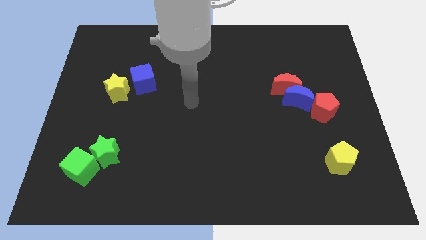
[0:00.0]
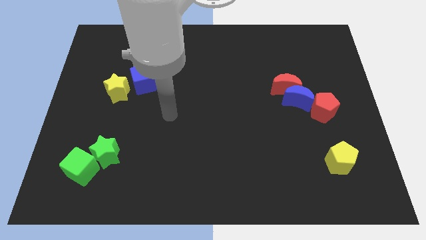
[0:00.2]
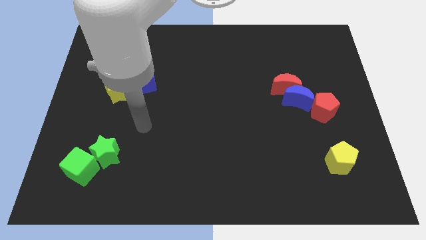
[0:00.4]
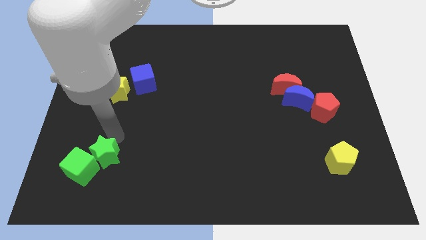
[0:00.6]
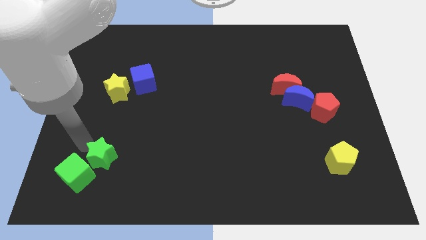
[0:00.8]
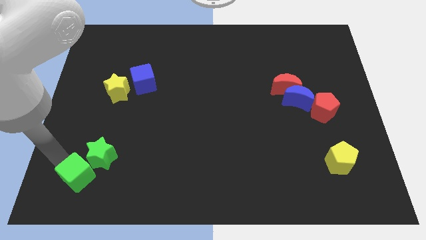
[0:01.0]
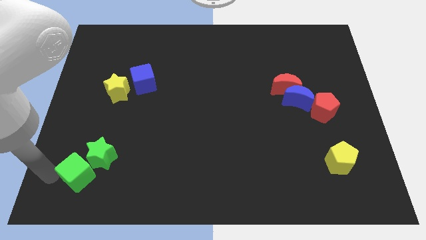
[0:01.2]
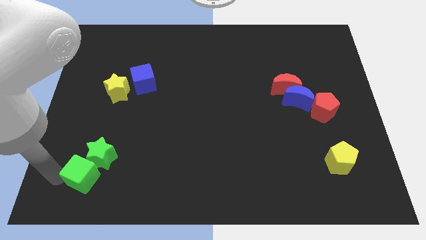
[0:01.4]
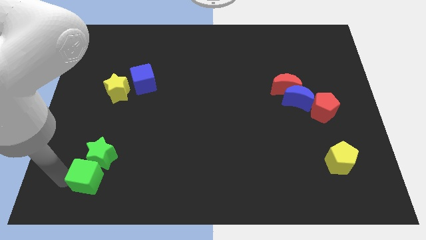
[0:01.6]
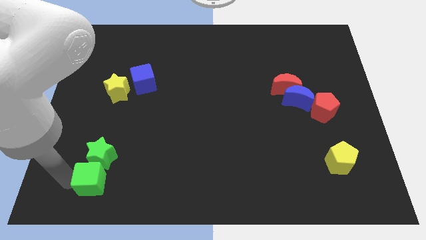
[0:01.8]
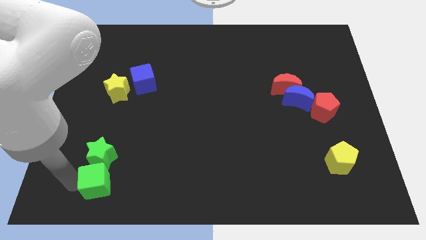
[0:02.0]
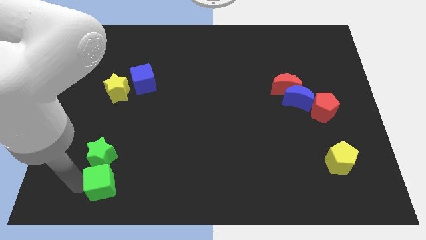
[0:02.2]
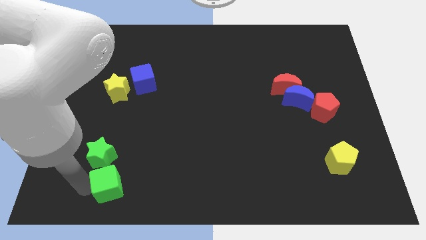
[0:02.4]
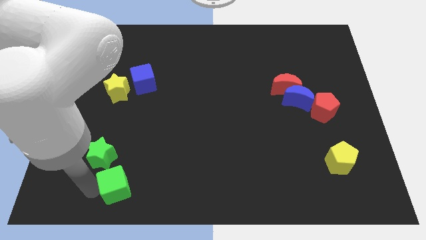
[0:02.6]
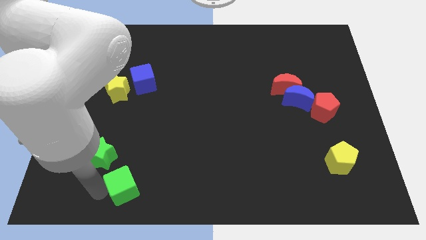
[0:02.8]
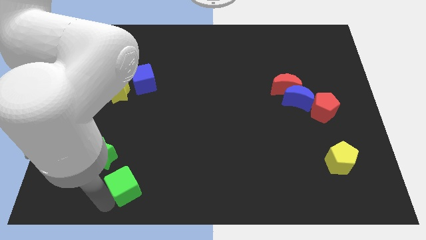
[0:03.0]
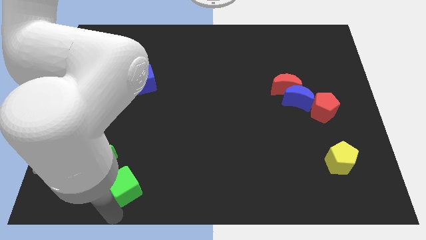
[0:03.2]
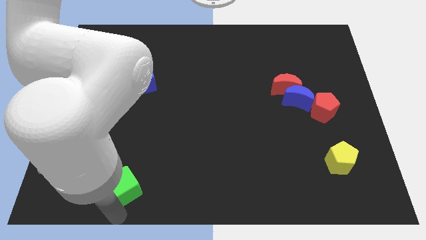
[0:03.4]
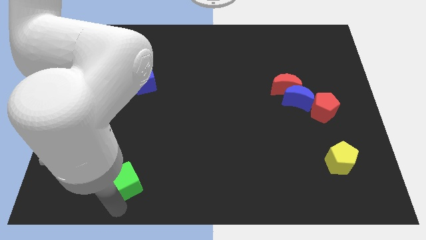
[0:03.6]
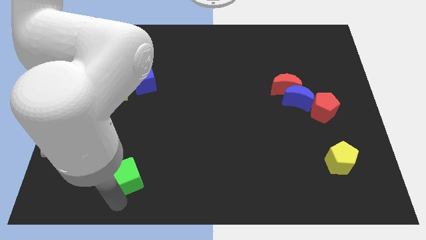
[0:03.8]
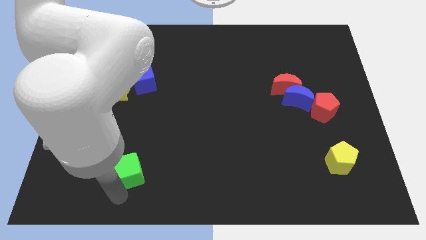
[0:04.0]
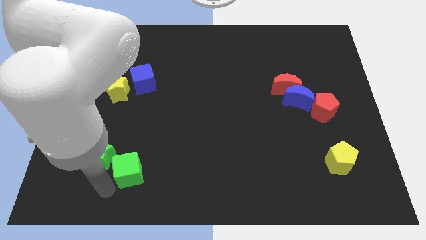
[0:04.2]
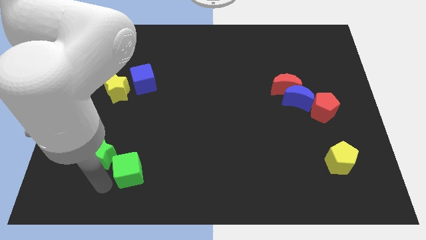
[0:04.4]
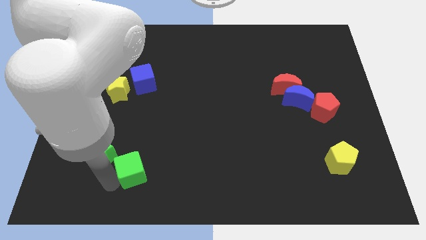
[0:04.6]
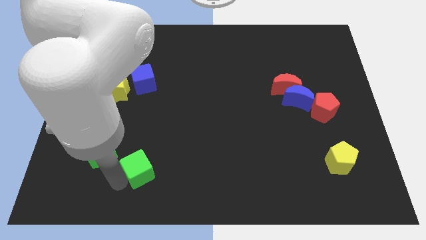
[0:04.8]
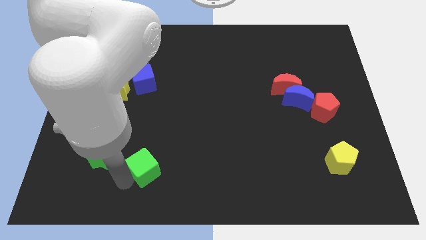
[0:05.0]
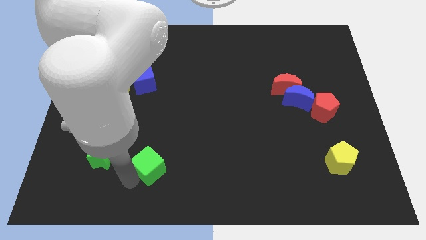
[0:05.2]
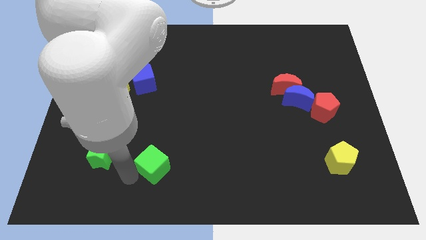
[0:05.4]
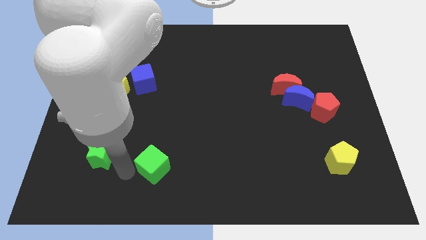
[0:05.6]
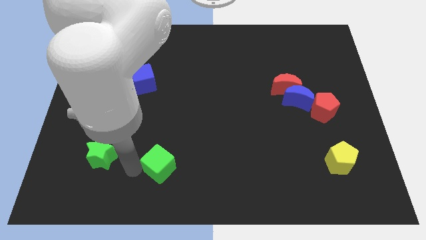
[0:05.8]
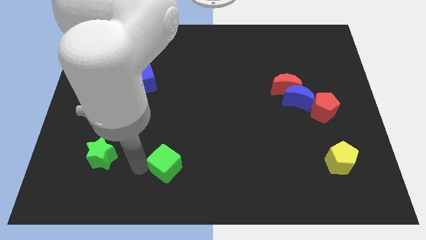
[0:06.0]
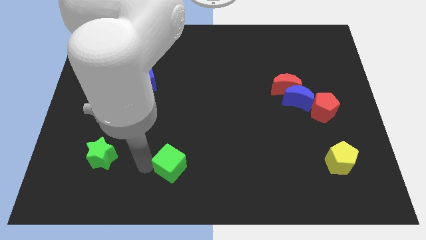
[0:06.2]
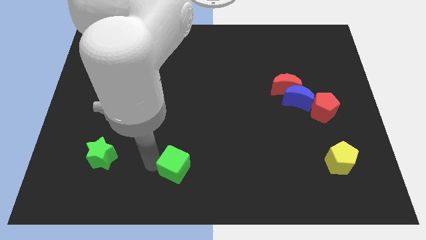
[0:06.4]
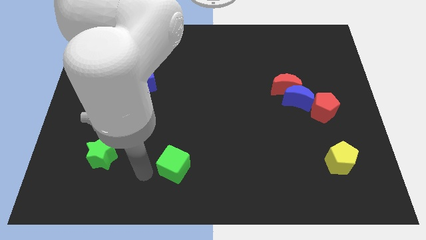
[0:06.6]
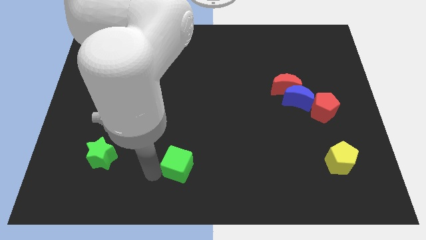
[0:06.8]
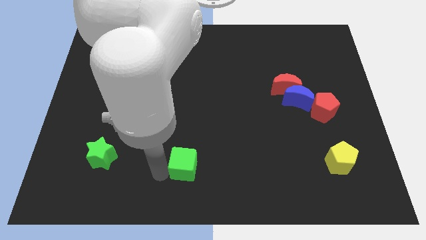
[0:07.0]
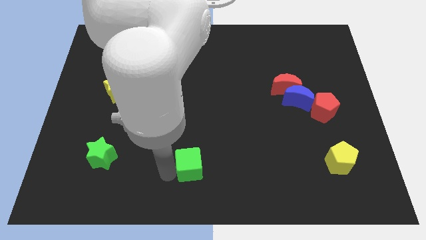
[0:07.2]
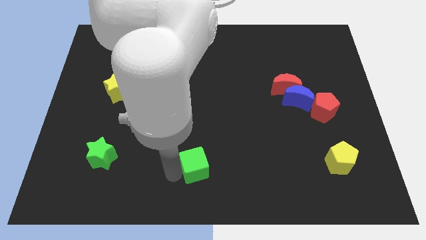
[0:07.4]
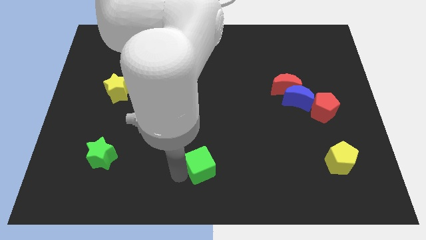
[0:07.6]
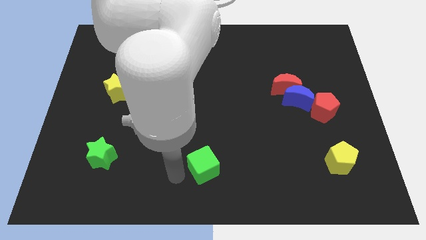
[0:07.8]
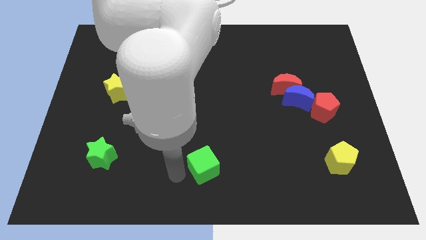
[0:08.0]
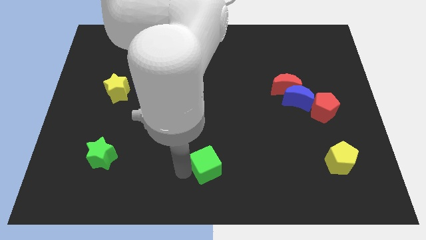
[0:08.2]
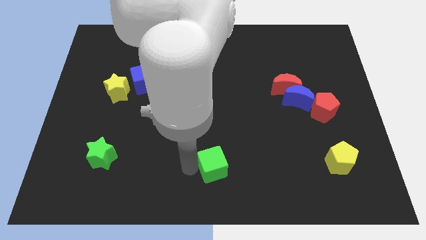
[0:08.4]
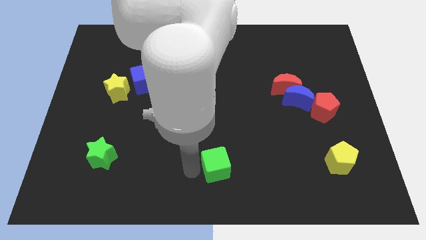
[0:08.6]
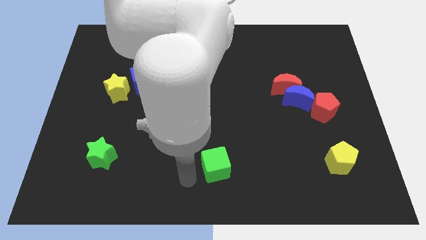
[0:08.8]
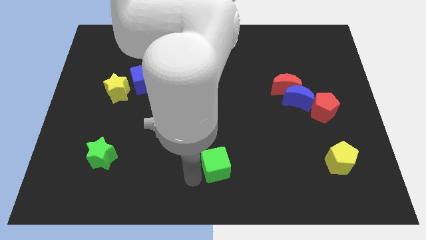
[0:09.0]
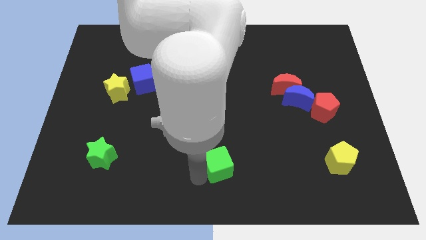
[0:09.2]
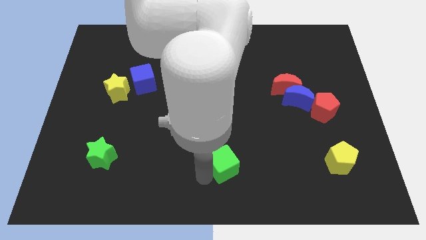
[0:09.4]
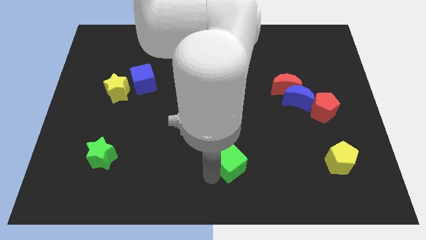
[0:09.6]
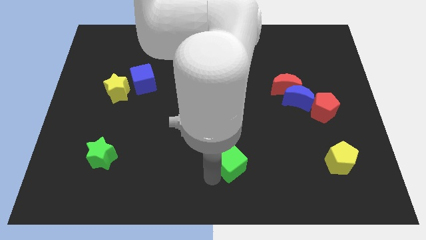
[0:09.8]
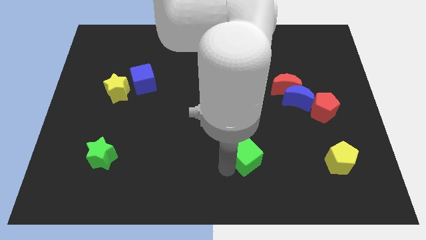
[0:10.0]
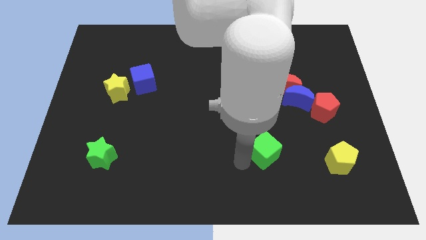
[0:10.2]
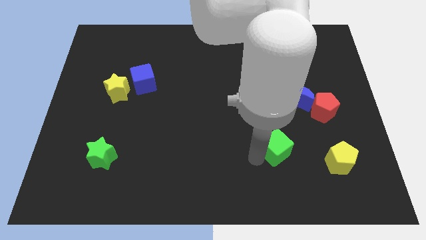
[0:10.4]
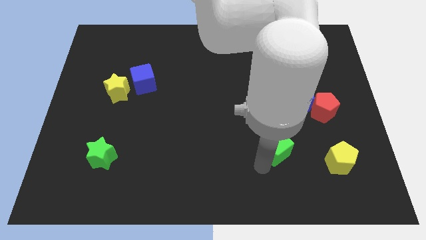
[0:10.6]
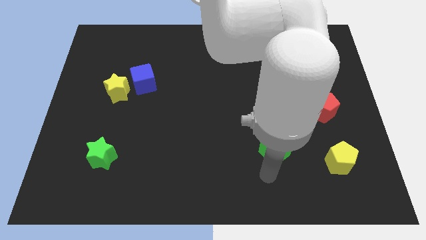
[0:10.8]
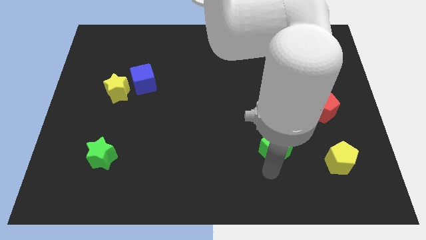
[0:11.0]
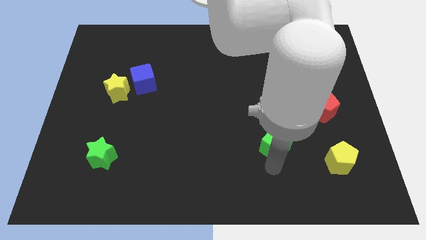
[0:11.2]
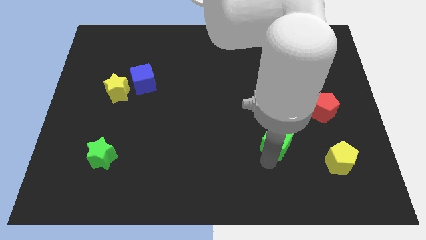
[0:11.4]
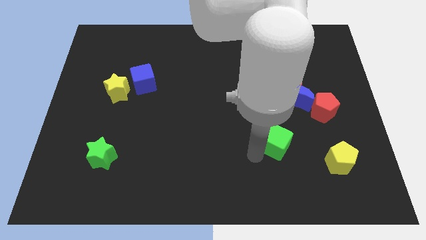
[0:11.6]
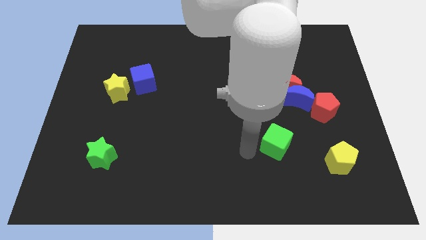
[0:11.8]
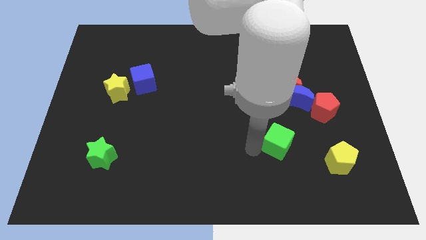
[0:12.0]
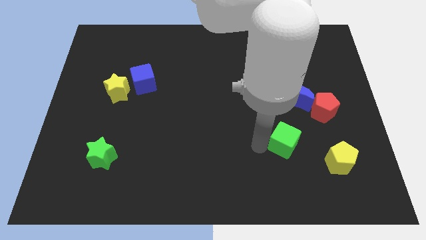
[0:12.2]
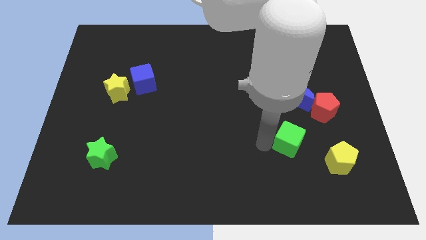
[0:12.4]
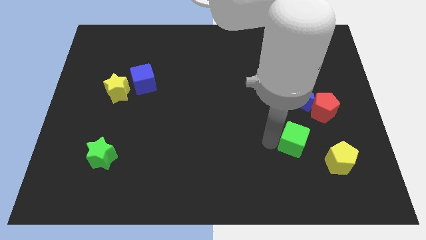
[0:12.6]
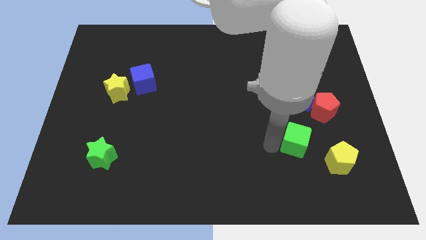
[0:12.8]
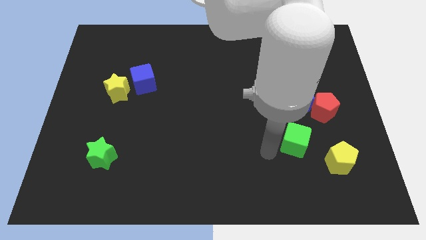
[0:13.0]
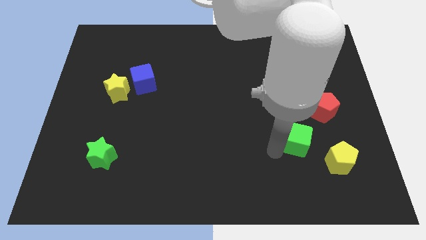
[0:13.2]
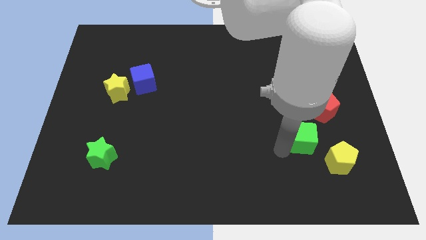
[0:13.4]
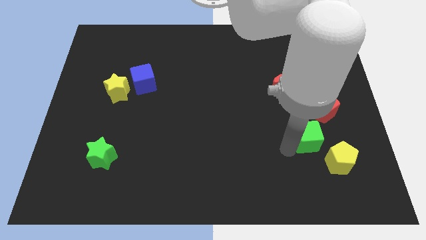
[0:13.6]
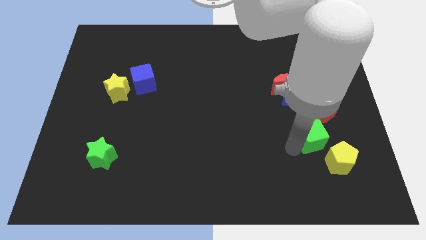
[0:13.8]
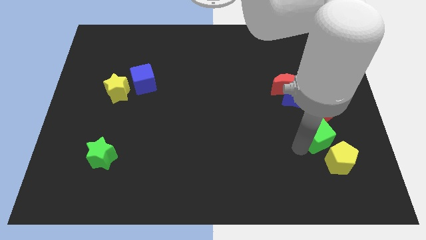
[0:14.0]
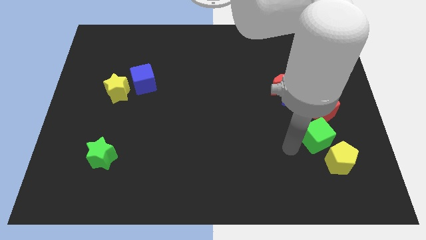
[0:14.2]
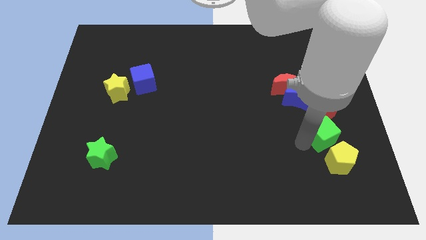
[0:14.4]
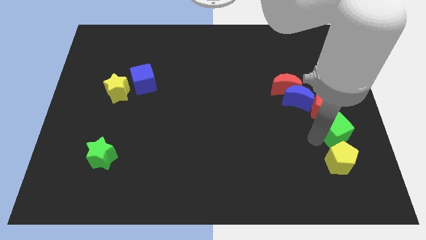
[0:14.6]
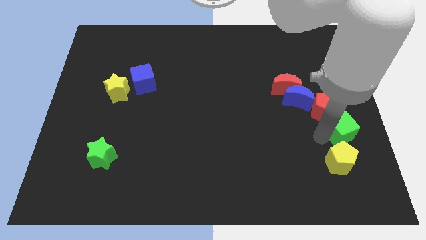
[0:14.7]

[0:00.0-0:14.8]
push the green cube to the right side
